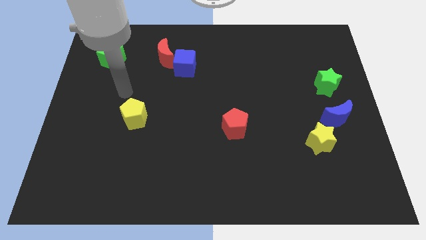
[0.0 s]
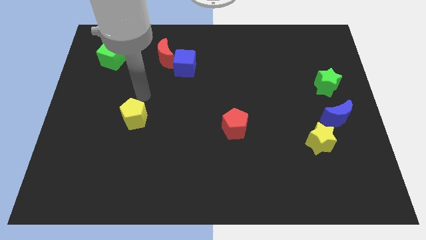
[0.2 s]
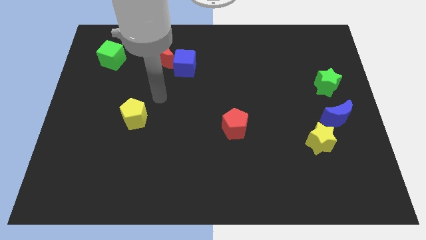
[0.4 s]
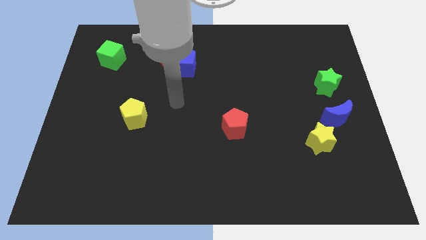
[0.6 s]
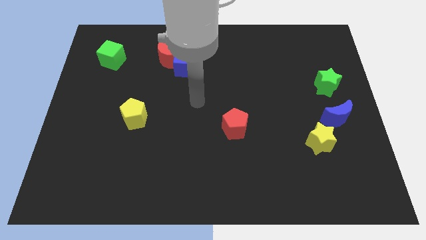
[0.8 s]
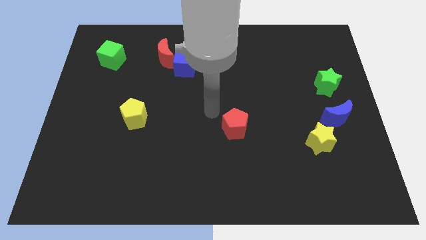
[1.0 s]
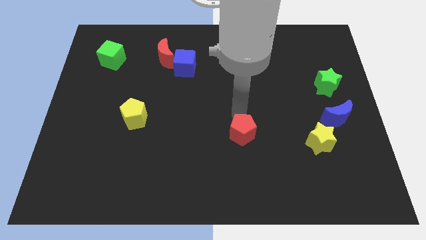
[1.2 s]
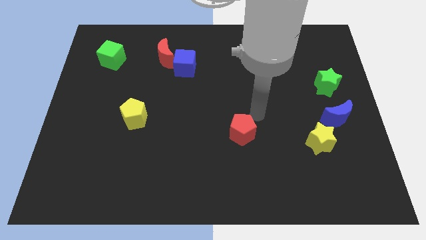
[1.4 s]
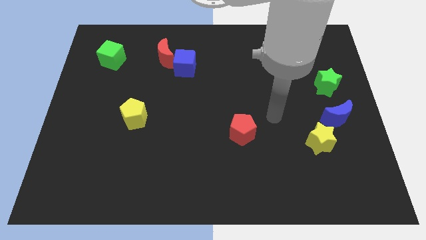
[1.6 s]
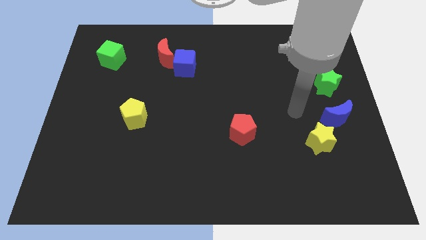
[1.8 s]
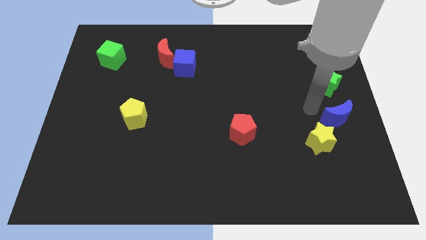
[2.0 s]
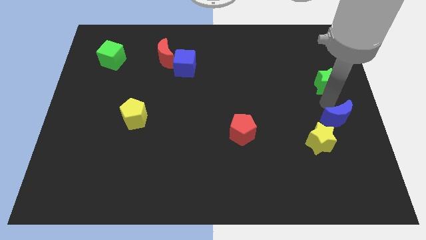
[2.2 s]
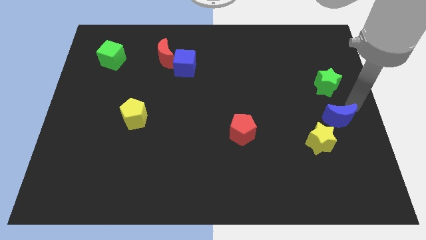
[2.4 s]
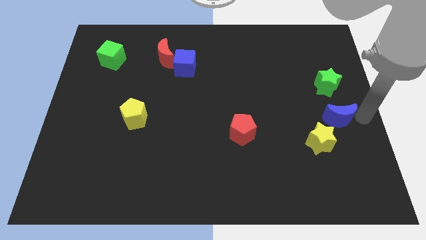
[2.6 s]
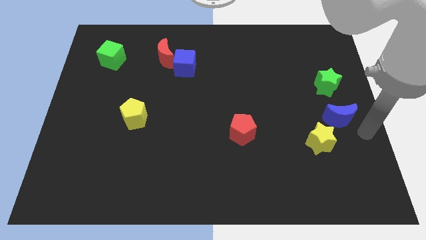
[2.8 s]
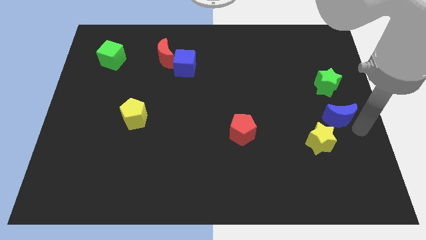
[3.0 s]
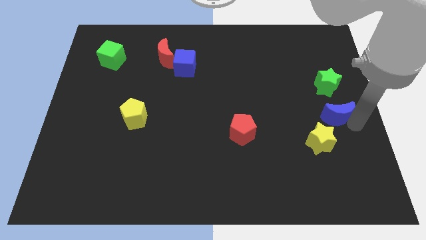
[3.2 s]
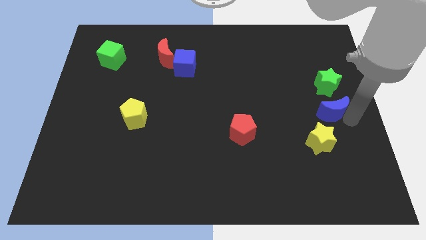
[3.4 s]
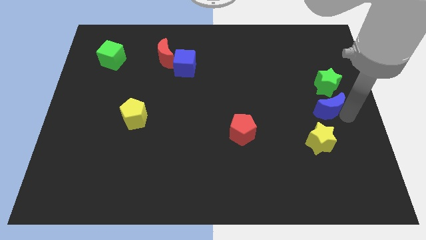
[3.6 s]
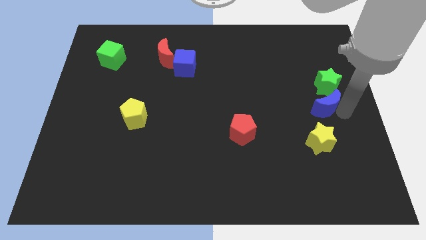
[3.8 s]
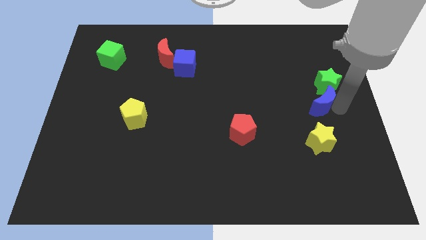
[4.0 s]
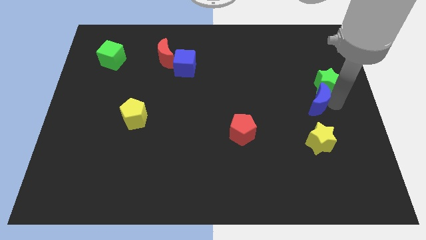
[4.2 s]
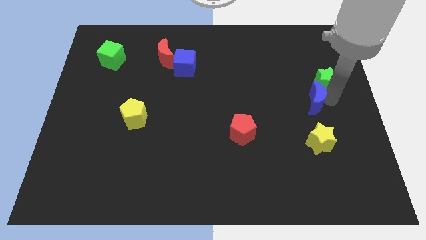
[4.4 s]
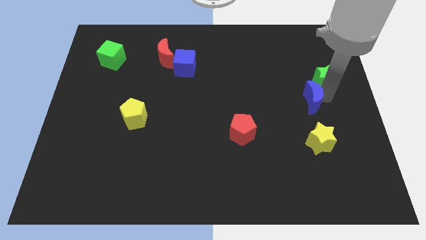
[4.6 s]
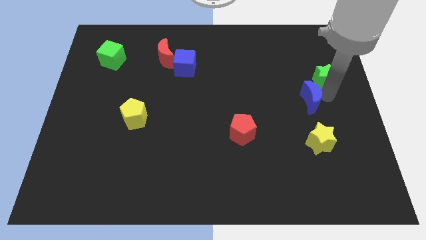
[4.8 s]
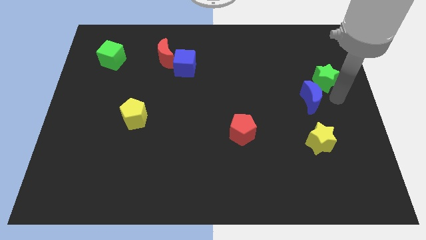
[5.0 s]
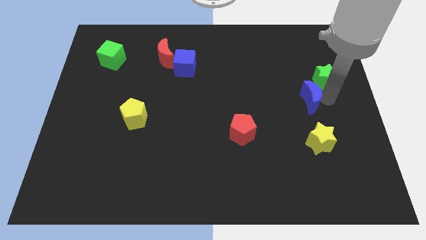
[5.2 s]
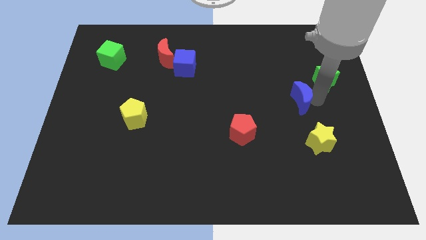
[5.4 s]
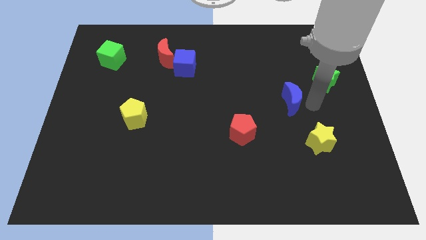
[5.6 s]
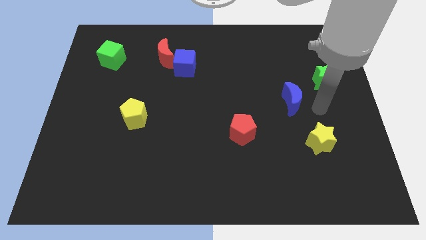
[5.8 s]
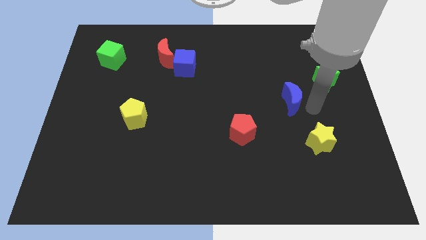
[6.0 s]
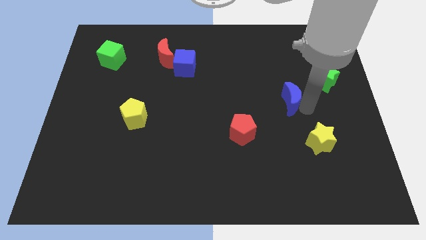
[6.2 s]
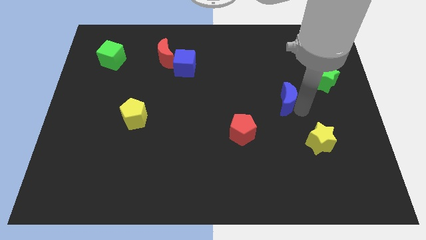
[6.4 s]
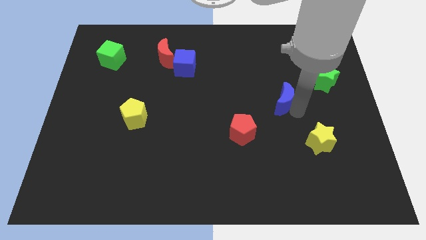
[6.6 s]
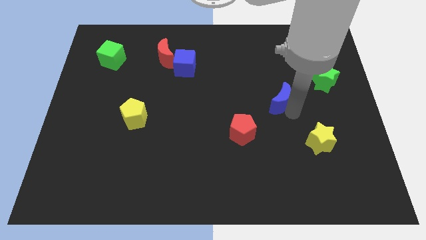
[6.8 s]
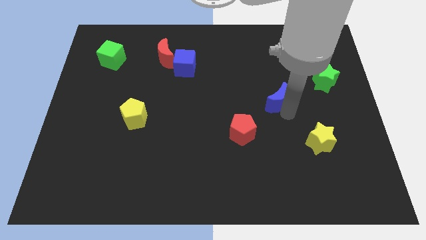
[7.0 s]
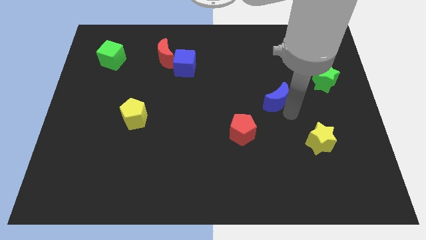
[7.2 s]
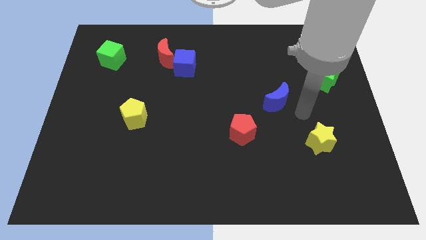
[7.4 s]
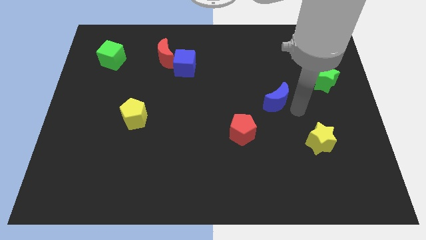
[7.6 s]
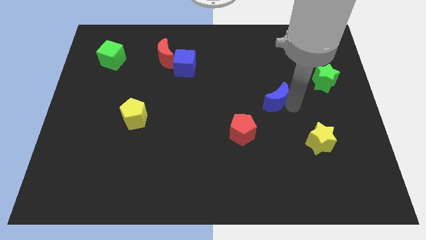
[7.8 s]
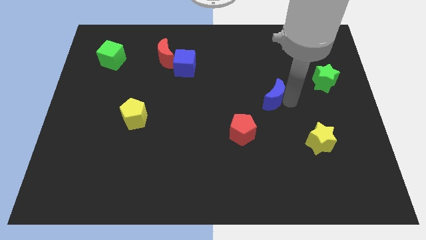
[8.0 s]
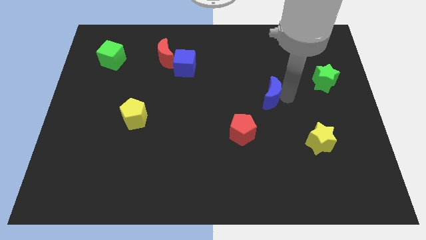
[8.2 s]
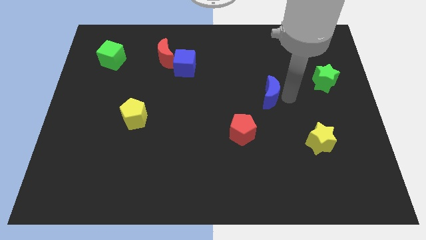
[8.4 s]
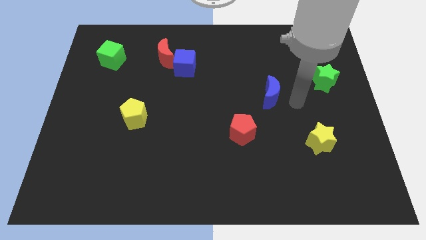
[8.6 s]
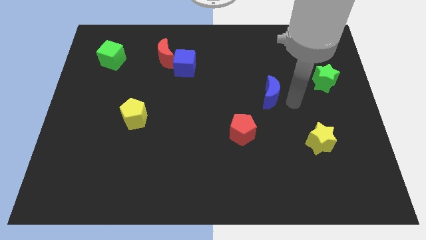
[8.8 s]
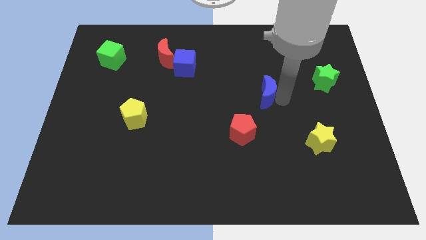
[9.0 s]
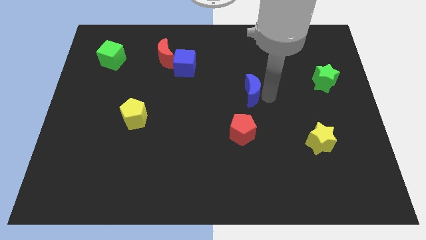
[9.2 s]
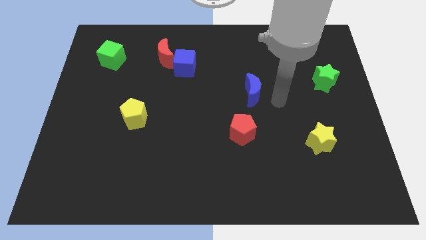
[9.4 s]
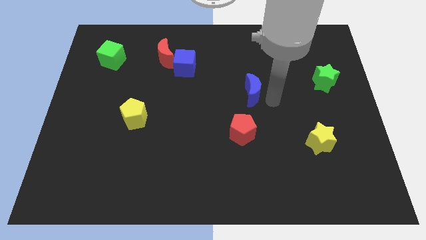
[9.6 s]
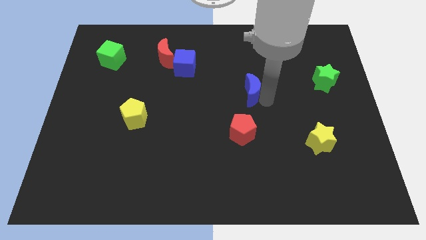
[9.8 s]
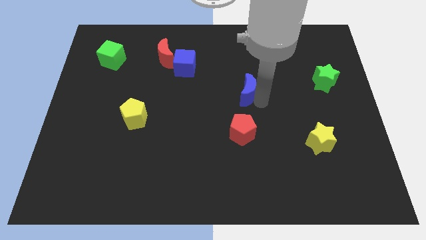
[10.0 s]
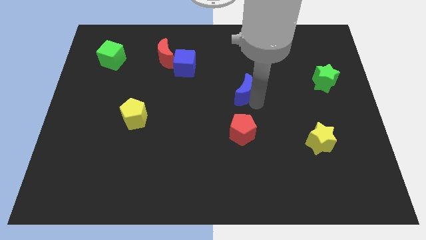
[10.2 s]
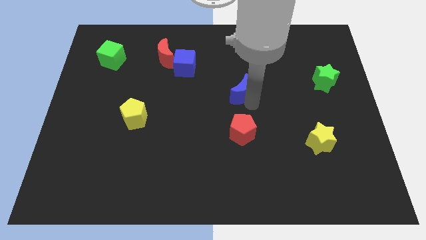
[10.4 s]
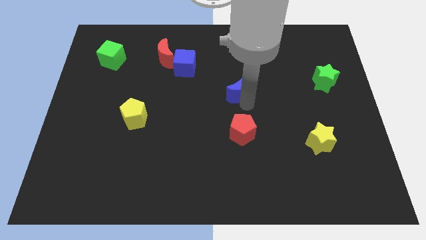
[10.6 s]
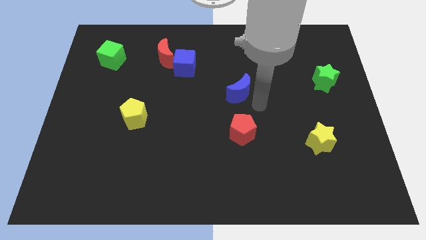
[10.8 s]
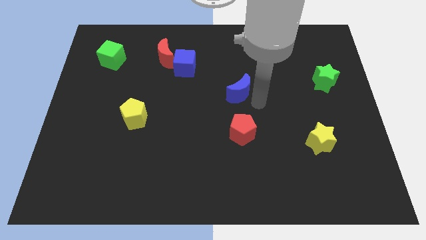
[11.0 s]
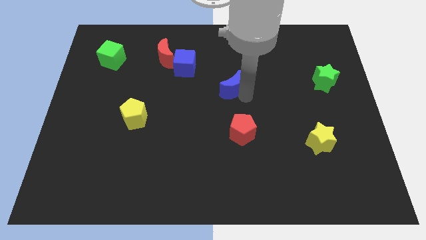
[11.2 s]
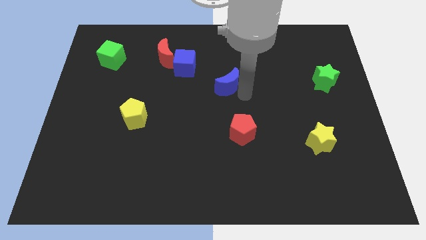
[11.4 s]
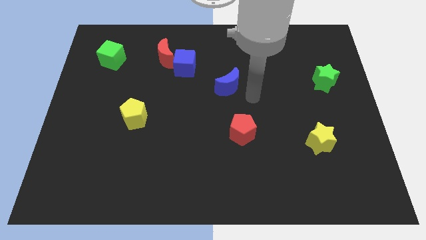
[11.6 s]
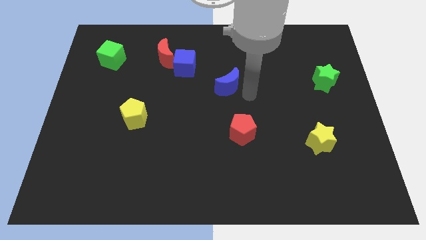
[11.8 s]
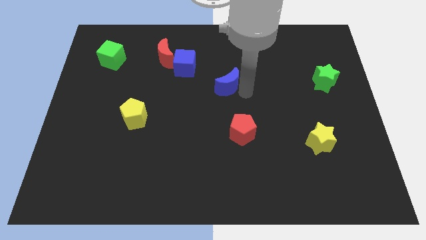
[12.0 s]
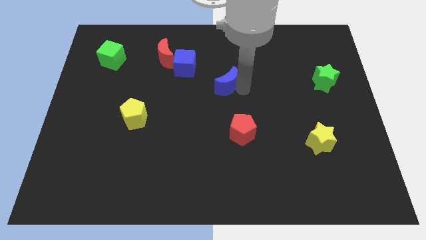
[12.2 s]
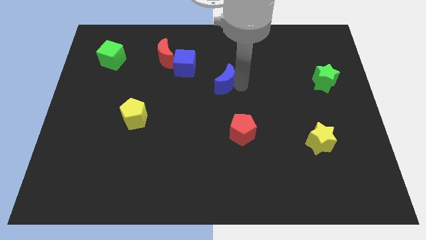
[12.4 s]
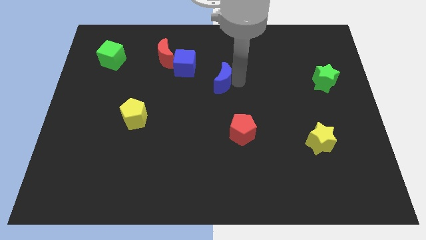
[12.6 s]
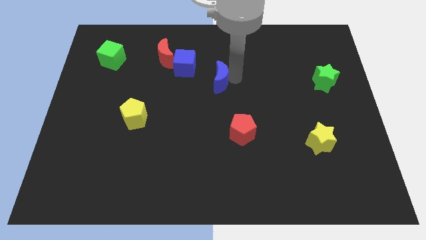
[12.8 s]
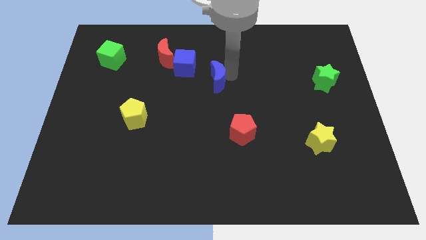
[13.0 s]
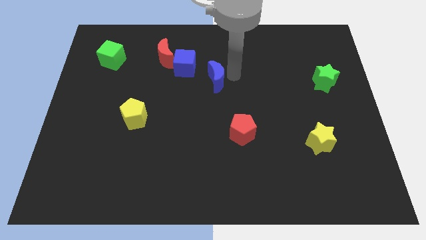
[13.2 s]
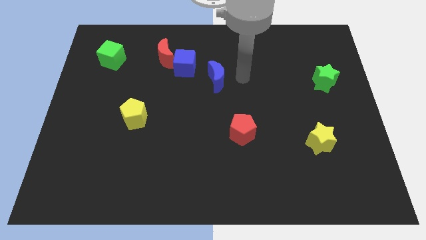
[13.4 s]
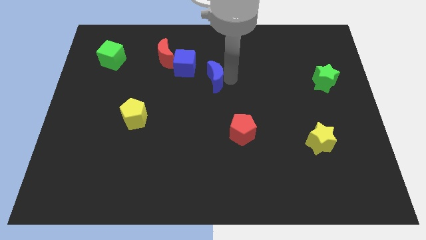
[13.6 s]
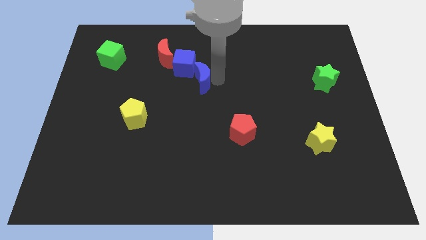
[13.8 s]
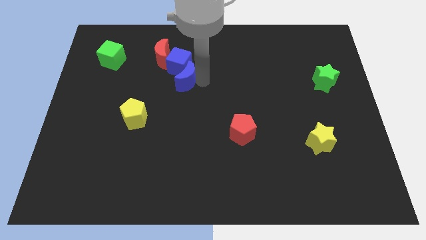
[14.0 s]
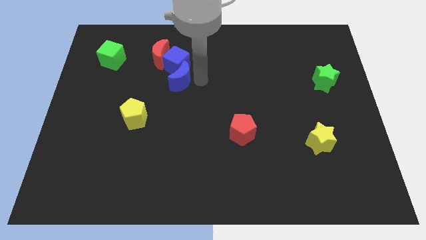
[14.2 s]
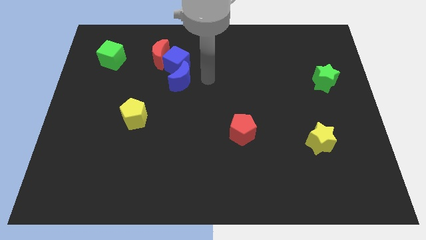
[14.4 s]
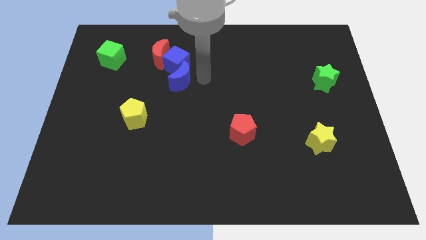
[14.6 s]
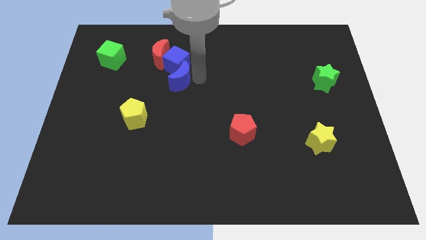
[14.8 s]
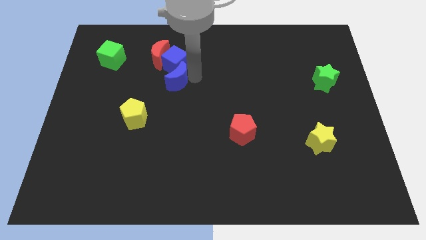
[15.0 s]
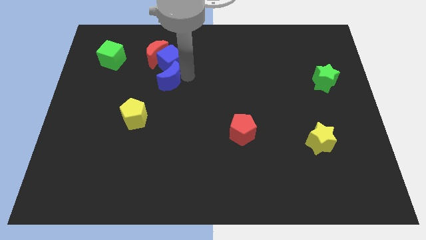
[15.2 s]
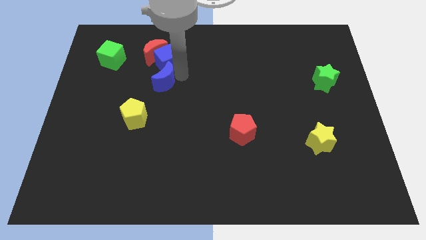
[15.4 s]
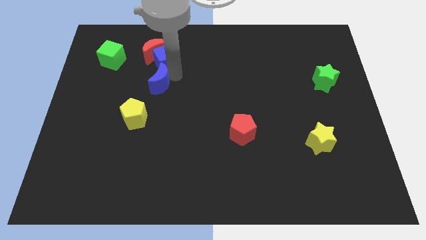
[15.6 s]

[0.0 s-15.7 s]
put the blue moon to the top of the yellow pentagon
